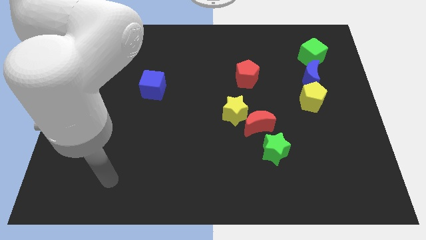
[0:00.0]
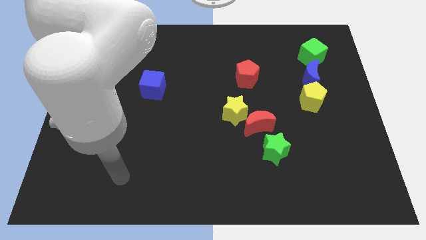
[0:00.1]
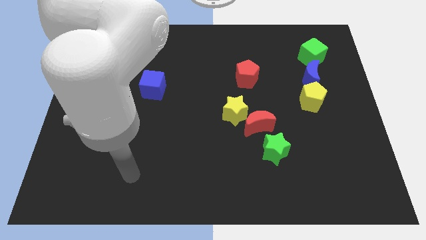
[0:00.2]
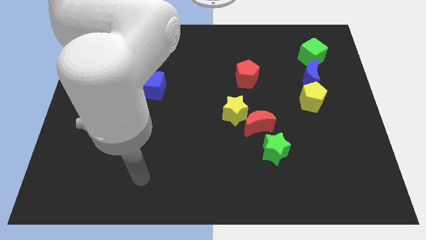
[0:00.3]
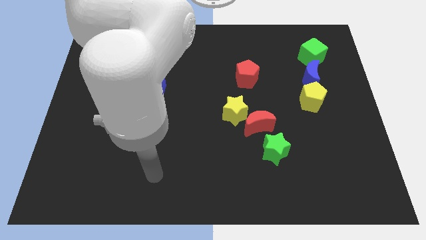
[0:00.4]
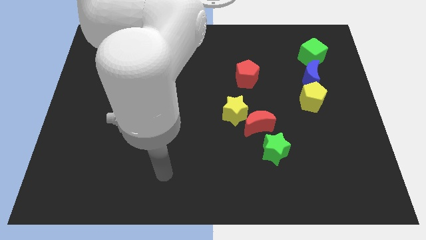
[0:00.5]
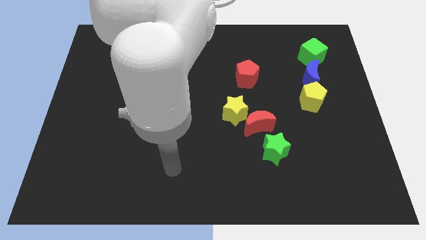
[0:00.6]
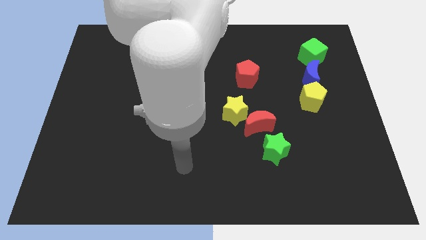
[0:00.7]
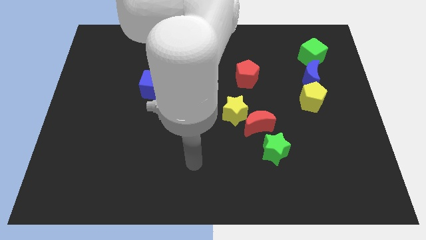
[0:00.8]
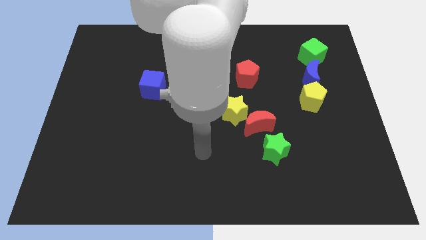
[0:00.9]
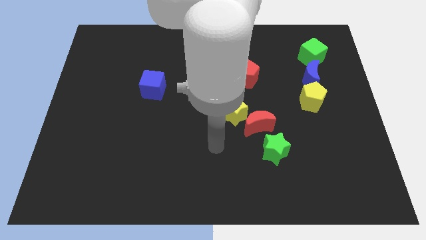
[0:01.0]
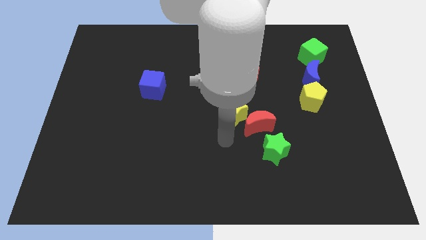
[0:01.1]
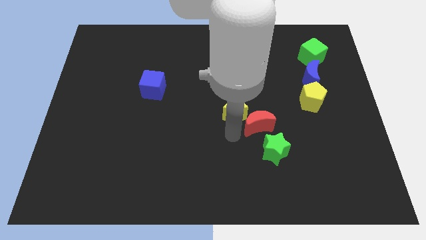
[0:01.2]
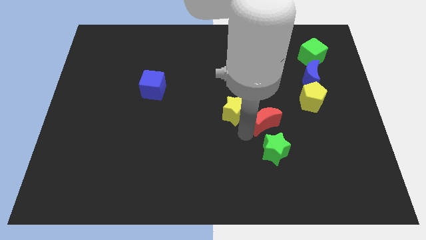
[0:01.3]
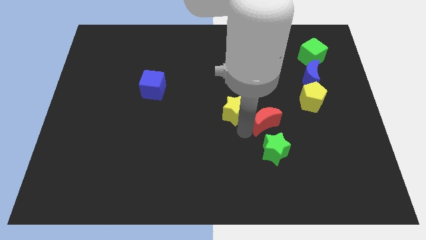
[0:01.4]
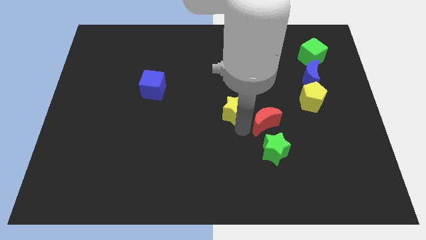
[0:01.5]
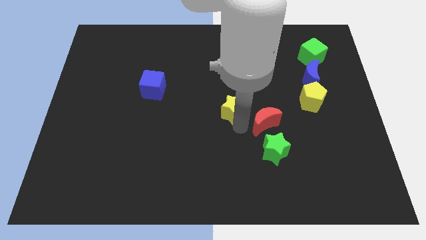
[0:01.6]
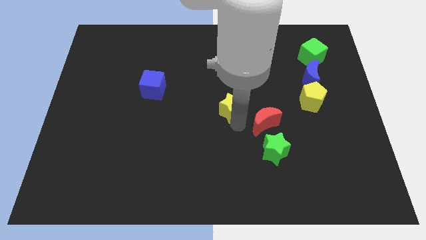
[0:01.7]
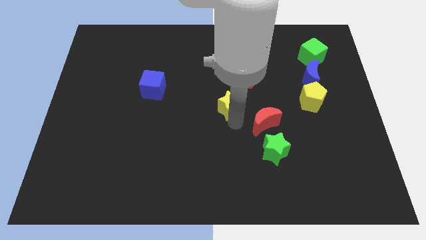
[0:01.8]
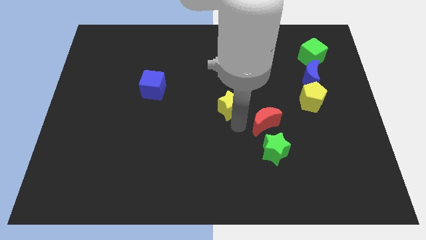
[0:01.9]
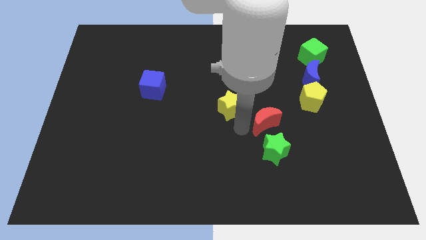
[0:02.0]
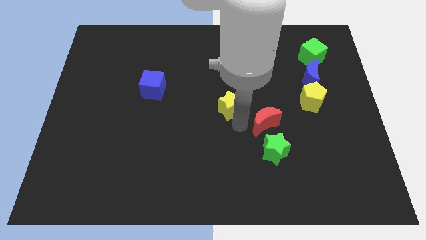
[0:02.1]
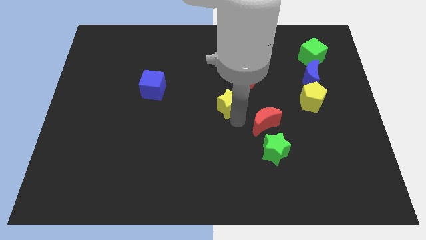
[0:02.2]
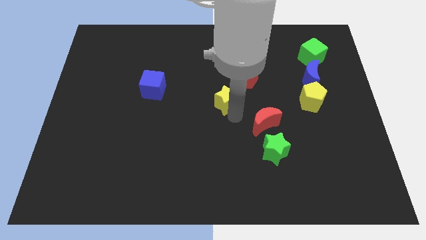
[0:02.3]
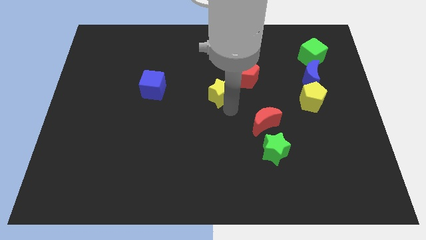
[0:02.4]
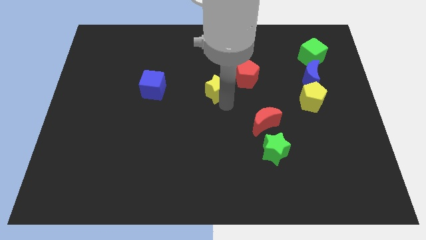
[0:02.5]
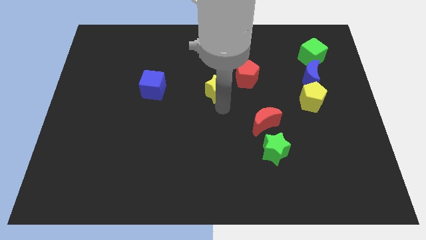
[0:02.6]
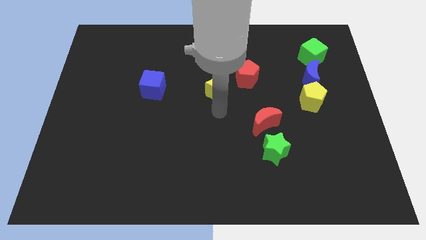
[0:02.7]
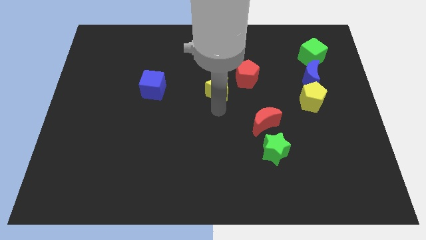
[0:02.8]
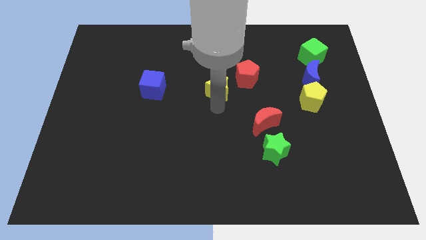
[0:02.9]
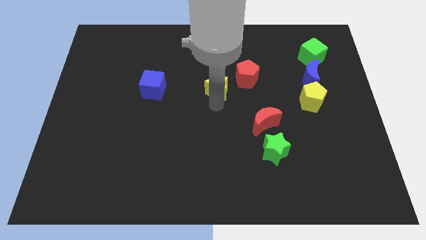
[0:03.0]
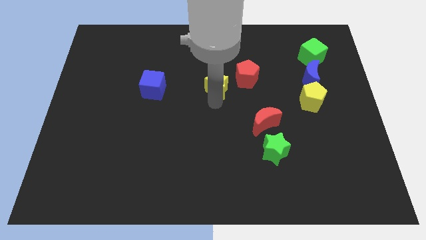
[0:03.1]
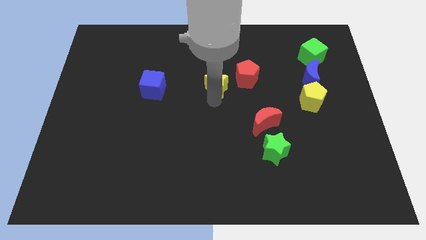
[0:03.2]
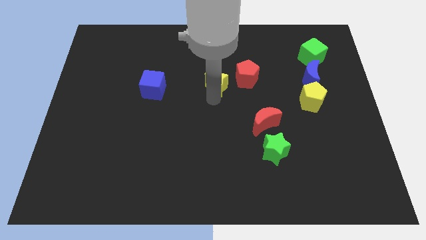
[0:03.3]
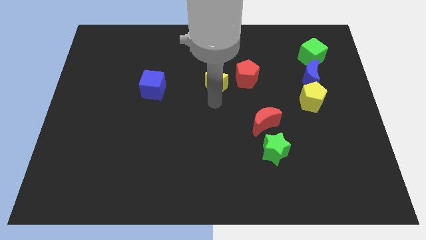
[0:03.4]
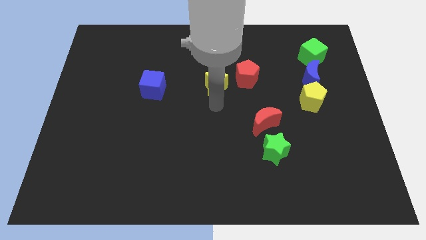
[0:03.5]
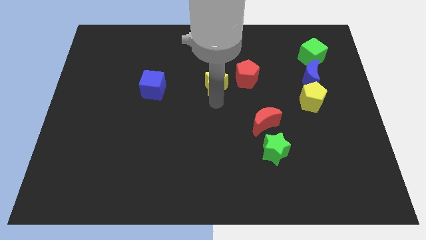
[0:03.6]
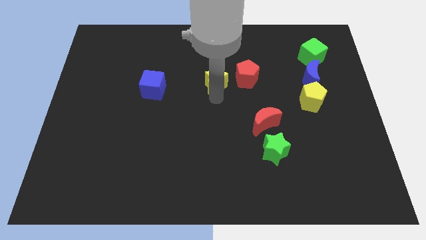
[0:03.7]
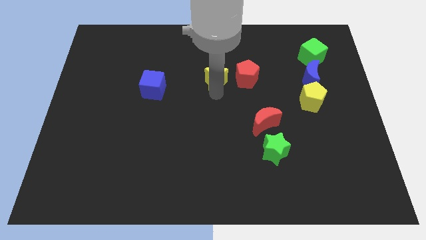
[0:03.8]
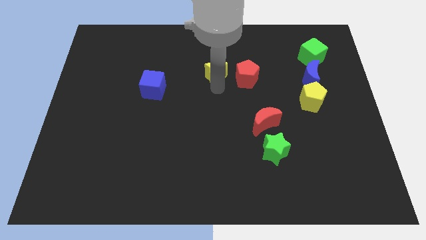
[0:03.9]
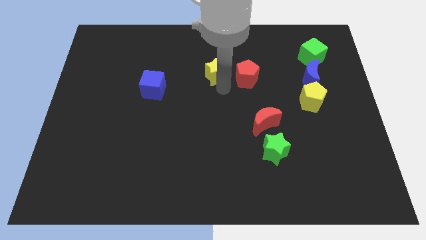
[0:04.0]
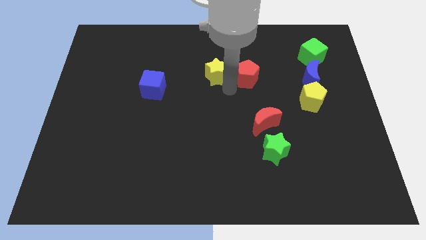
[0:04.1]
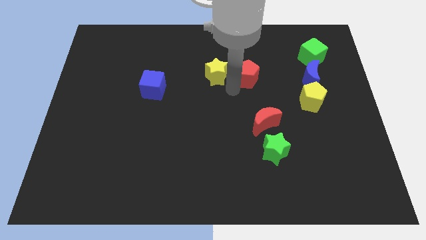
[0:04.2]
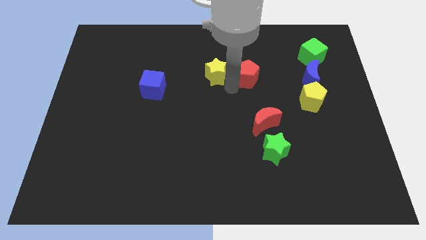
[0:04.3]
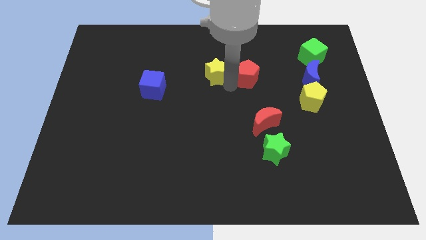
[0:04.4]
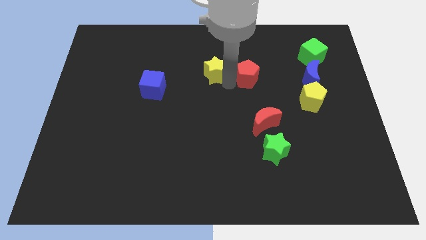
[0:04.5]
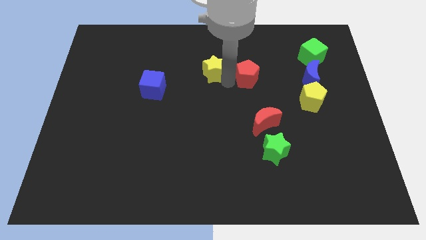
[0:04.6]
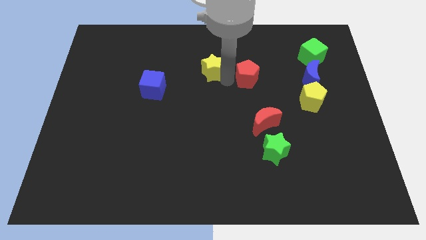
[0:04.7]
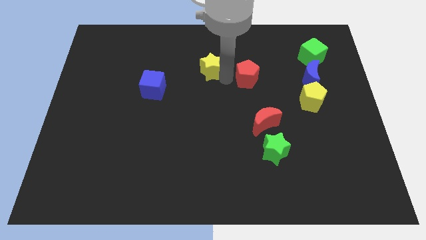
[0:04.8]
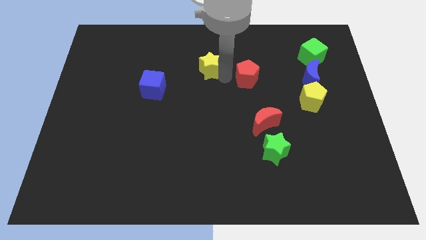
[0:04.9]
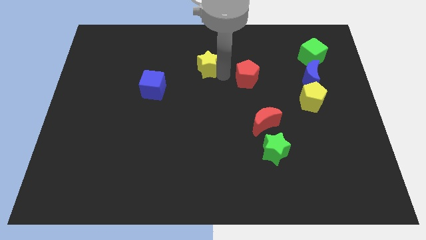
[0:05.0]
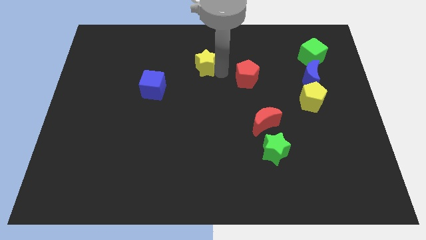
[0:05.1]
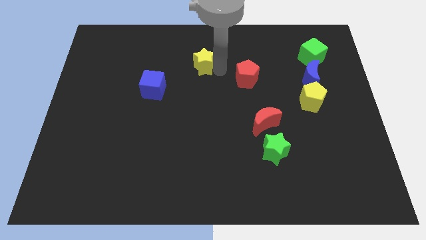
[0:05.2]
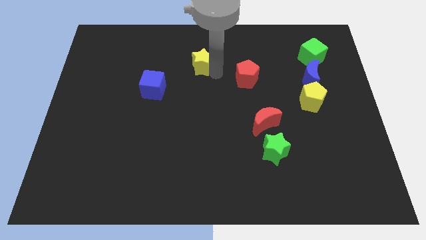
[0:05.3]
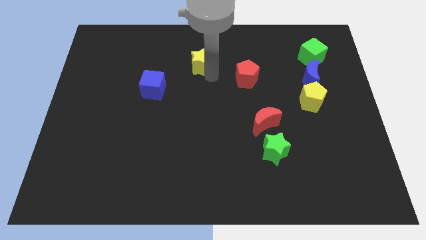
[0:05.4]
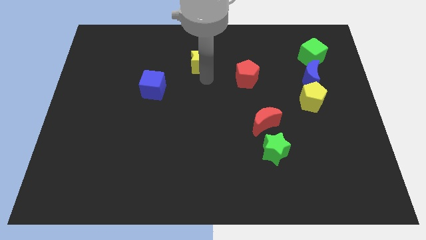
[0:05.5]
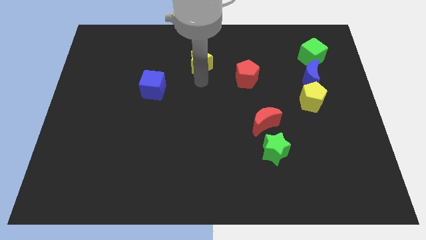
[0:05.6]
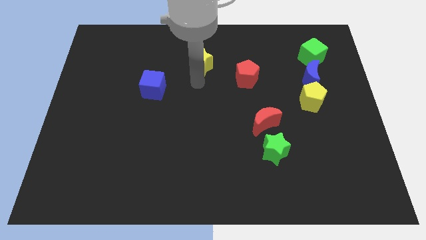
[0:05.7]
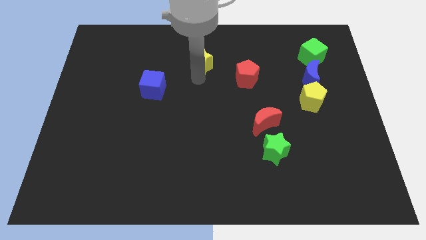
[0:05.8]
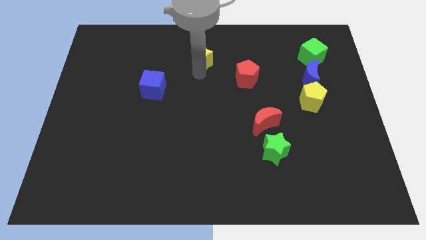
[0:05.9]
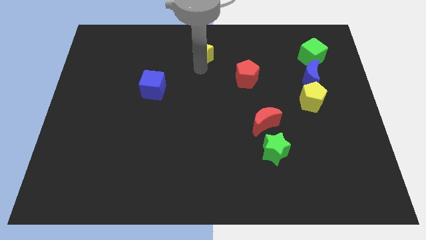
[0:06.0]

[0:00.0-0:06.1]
slide the yellow star to the top side

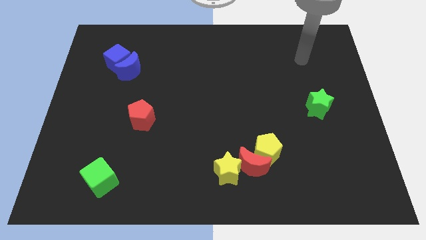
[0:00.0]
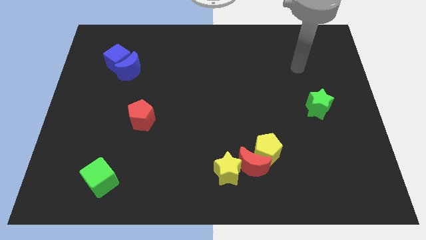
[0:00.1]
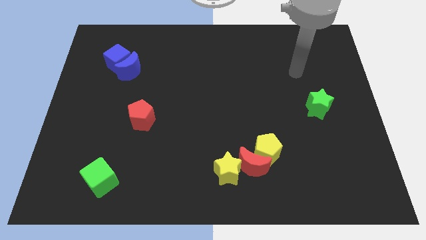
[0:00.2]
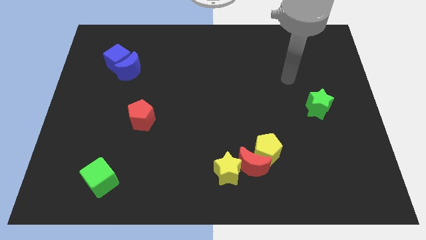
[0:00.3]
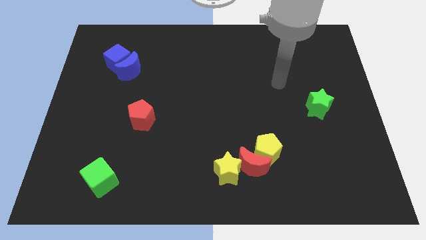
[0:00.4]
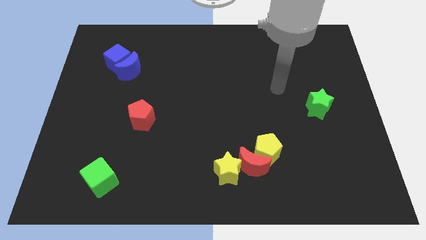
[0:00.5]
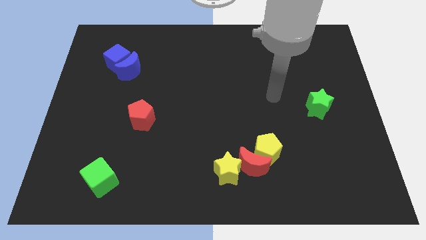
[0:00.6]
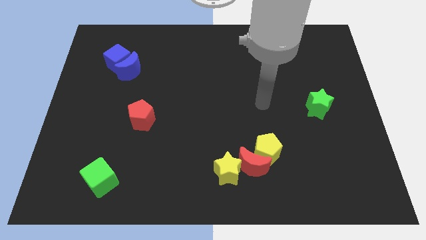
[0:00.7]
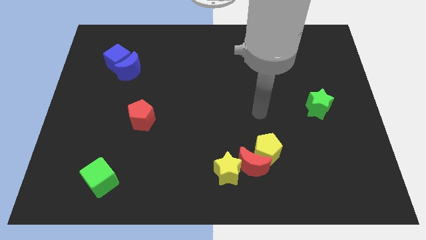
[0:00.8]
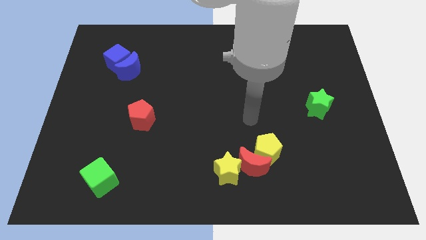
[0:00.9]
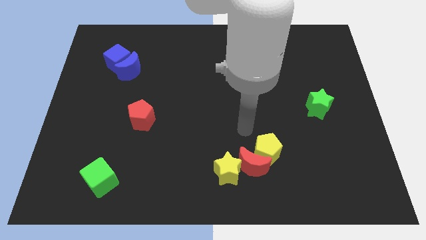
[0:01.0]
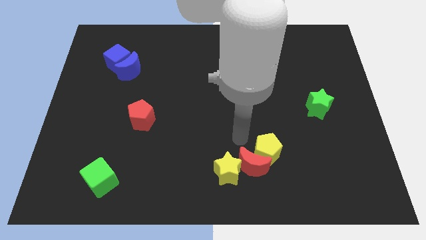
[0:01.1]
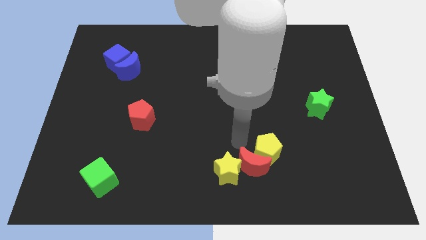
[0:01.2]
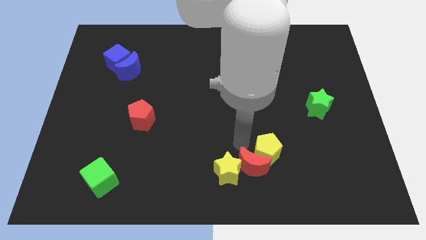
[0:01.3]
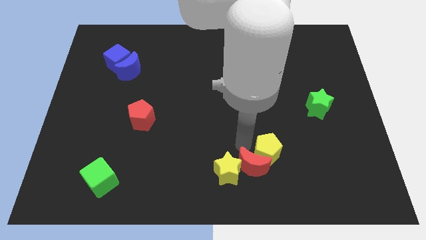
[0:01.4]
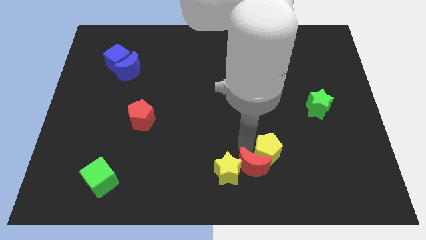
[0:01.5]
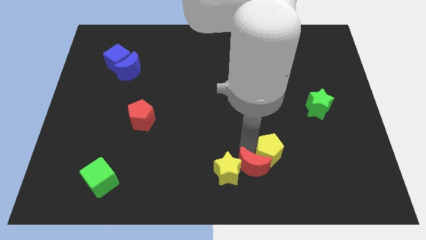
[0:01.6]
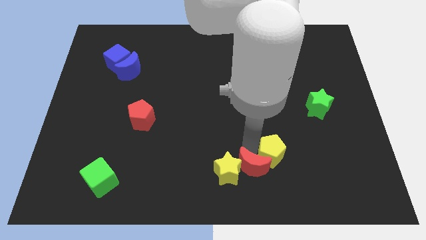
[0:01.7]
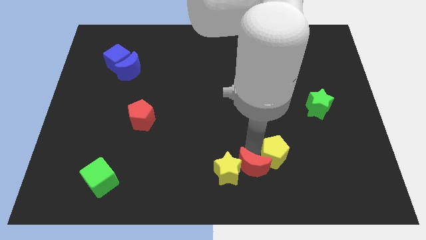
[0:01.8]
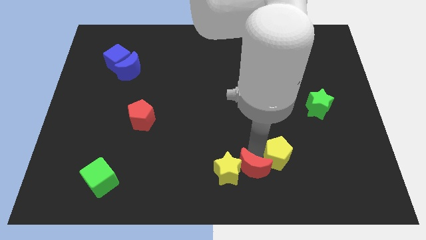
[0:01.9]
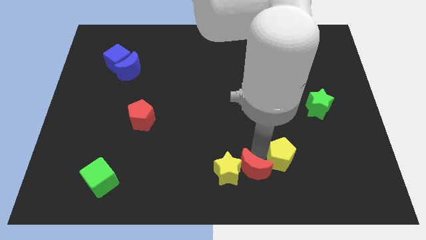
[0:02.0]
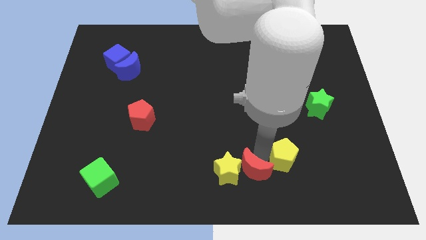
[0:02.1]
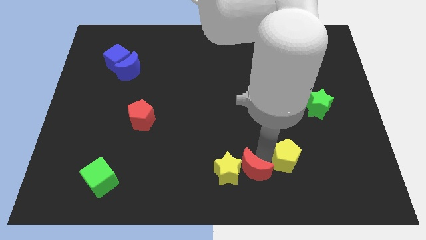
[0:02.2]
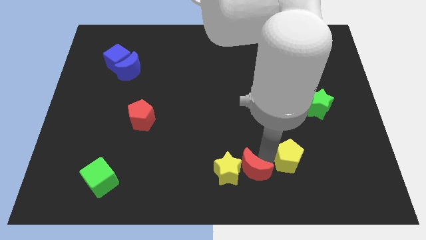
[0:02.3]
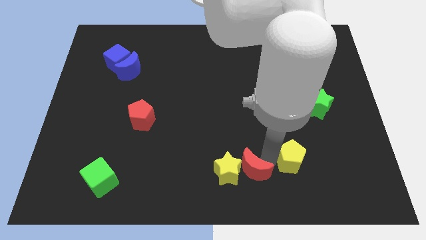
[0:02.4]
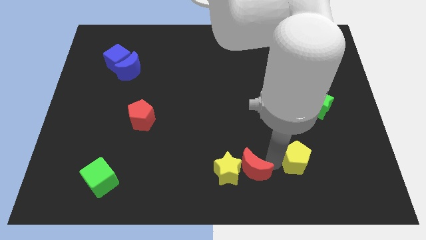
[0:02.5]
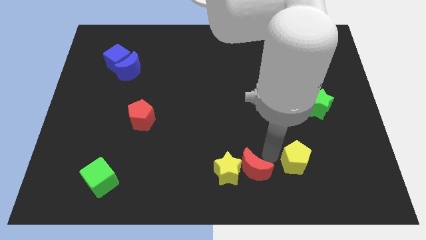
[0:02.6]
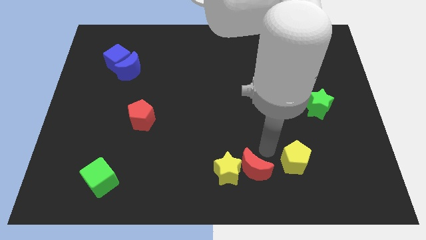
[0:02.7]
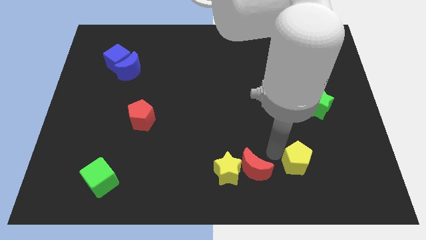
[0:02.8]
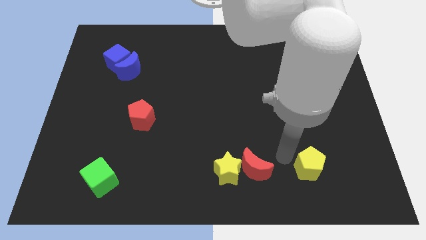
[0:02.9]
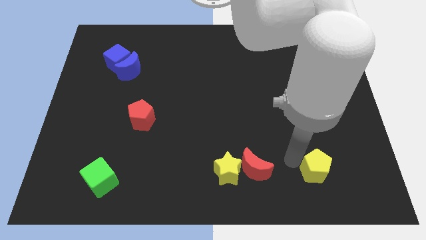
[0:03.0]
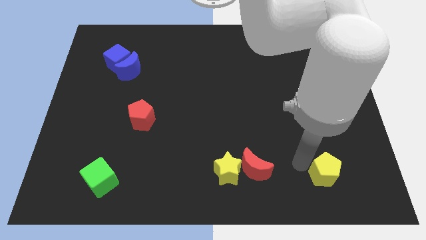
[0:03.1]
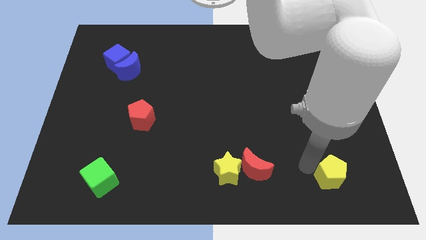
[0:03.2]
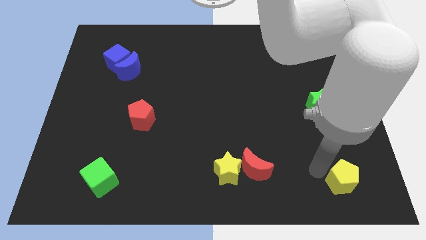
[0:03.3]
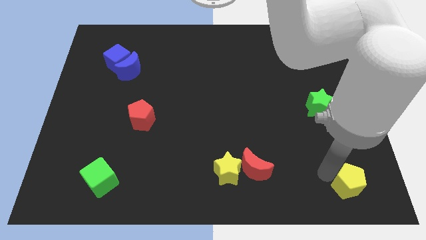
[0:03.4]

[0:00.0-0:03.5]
slide the yellow pentagon to the bottom right
